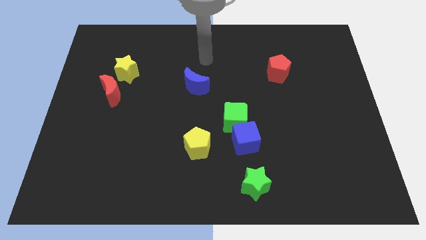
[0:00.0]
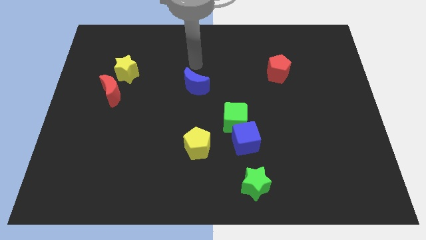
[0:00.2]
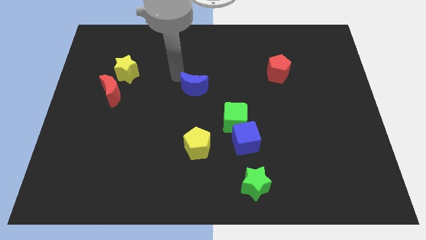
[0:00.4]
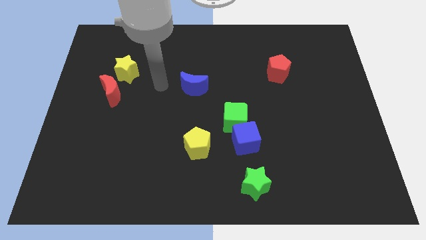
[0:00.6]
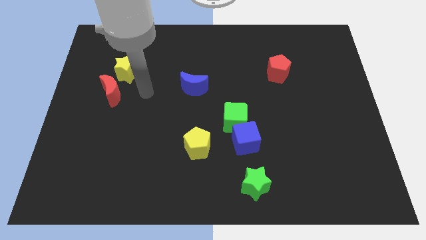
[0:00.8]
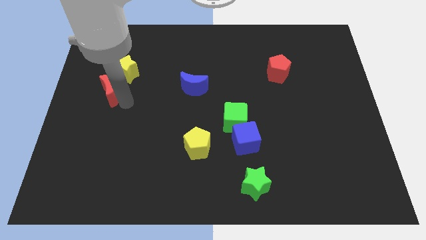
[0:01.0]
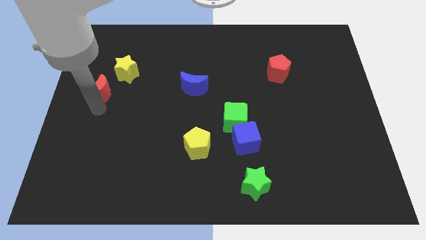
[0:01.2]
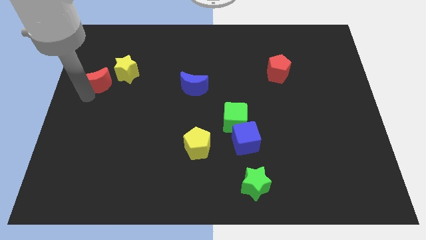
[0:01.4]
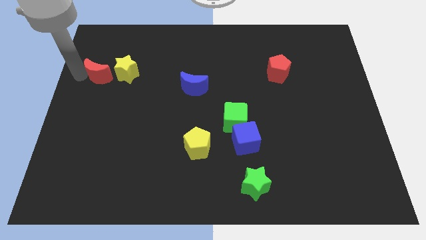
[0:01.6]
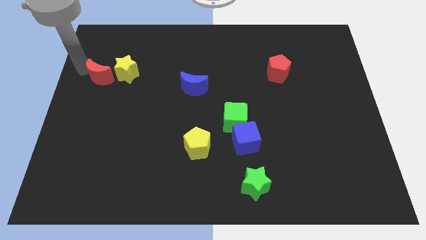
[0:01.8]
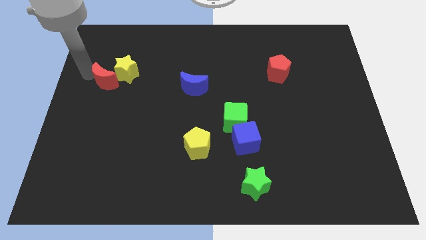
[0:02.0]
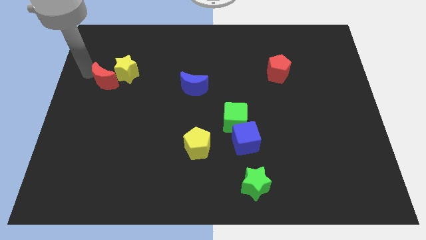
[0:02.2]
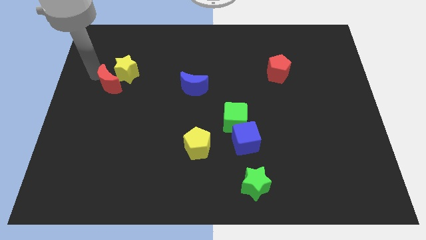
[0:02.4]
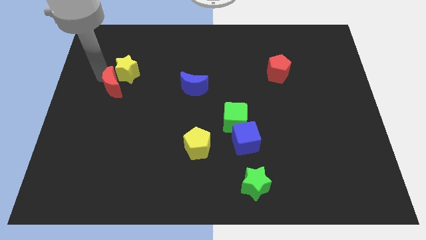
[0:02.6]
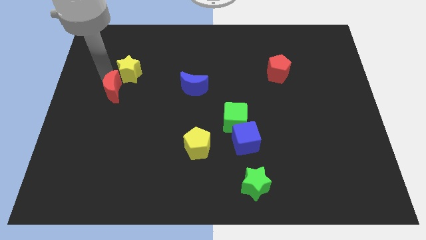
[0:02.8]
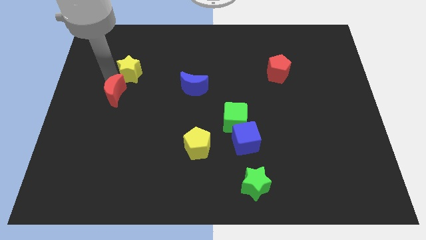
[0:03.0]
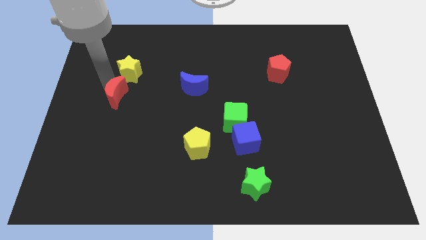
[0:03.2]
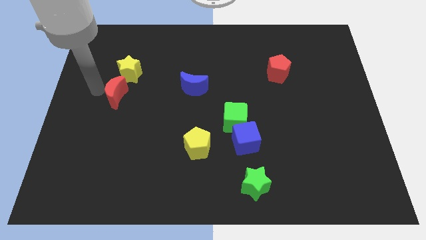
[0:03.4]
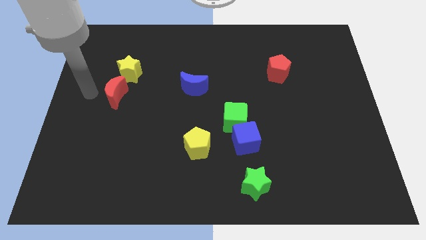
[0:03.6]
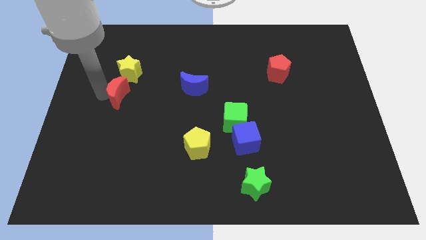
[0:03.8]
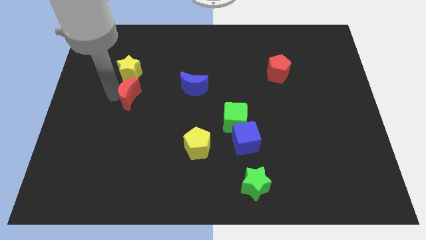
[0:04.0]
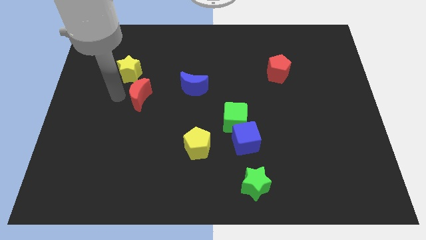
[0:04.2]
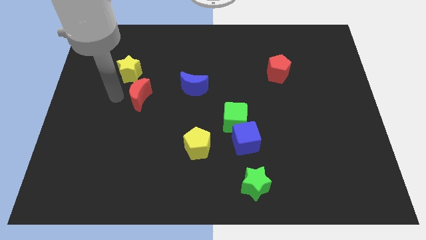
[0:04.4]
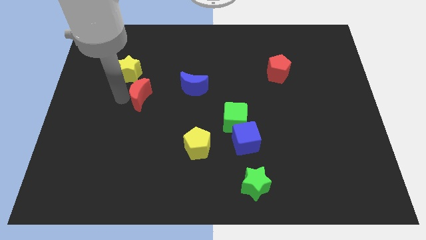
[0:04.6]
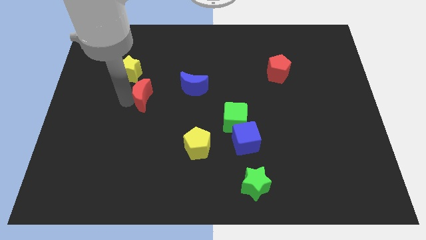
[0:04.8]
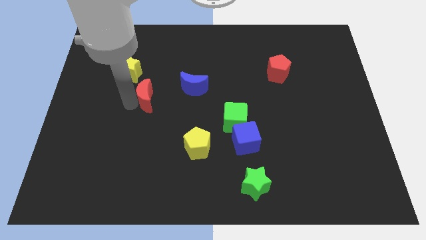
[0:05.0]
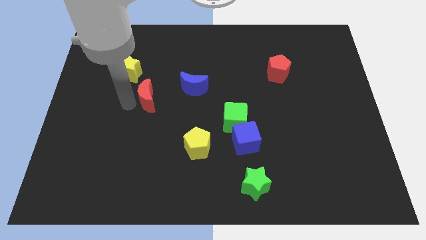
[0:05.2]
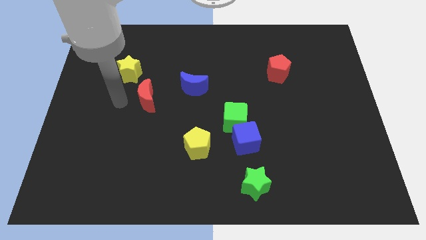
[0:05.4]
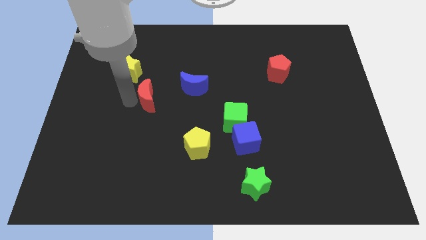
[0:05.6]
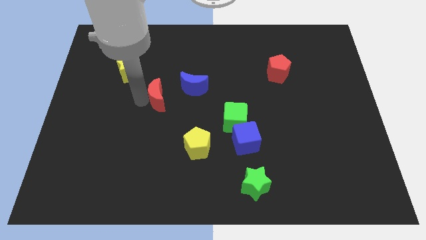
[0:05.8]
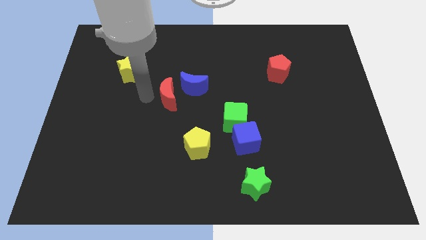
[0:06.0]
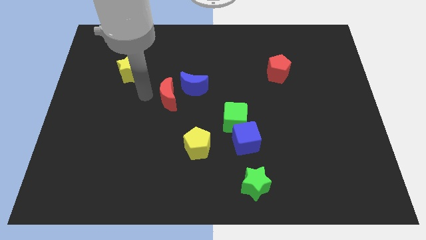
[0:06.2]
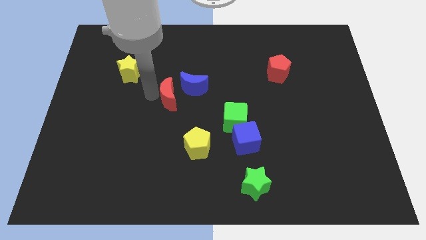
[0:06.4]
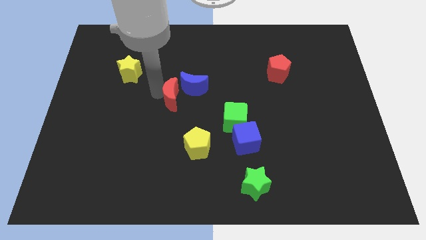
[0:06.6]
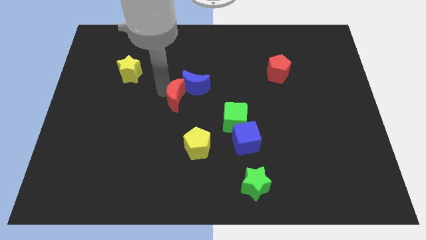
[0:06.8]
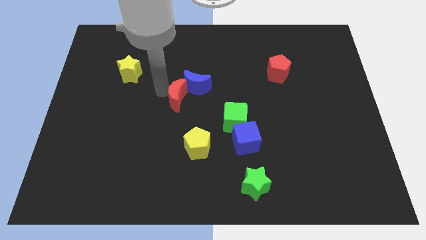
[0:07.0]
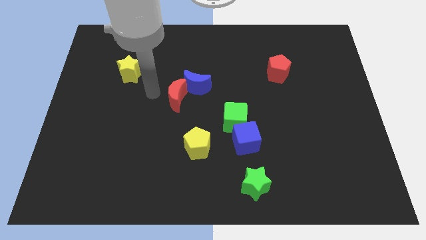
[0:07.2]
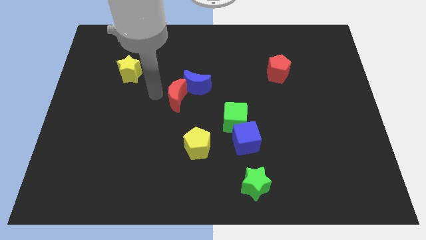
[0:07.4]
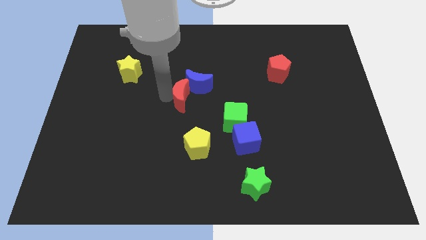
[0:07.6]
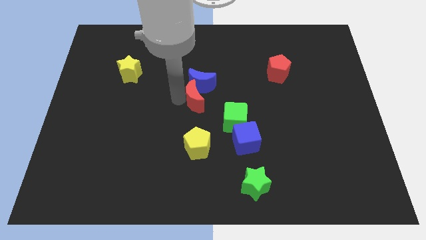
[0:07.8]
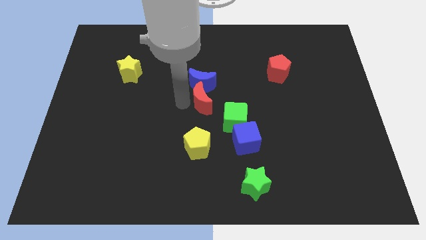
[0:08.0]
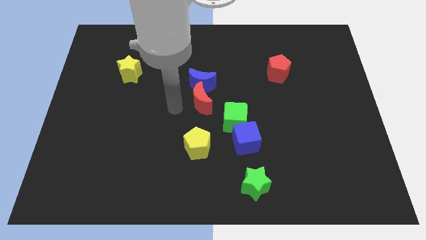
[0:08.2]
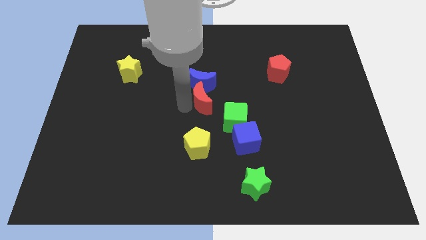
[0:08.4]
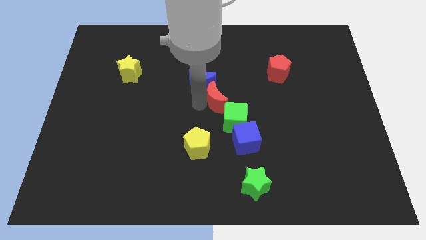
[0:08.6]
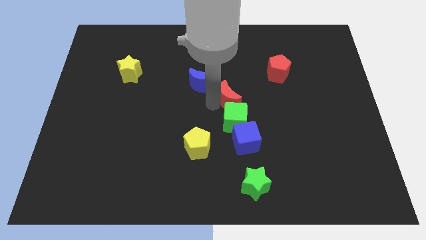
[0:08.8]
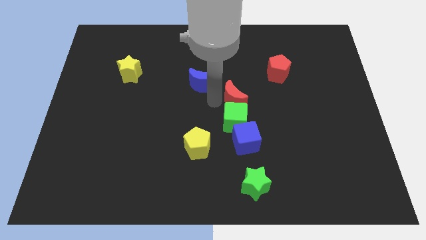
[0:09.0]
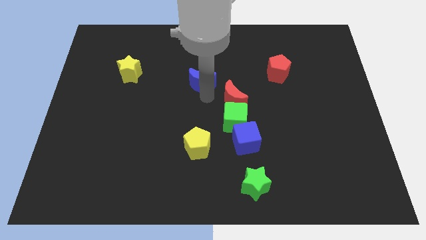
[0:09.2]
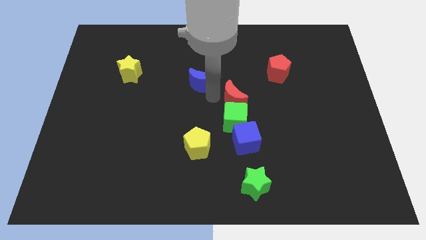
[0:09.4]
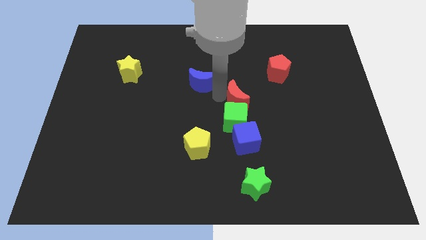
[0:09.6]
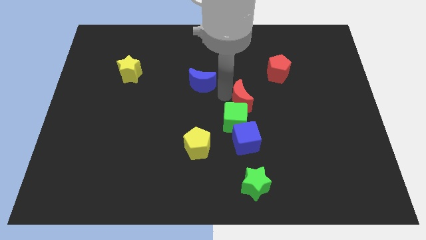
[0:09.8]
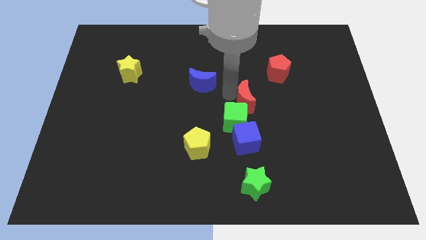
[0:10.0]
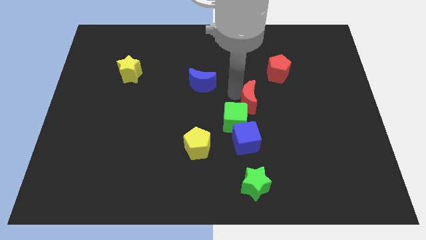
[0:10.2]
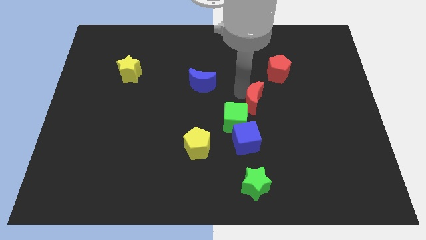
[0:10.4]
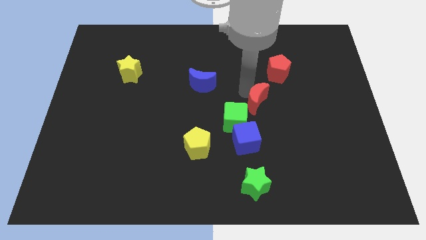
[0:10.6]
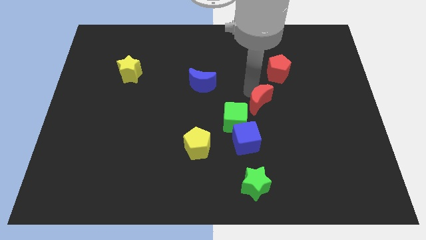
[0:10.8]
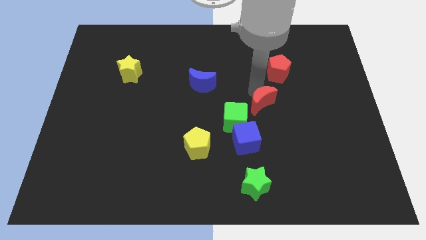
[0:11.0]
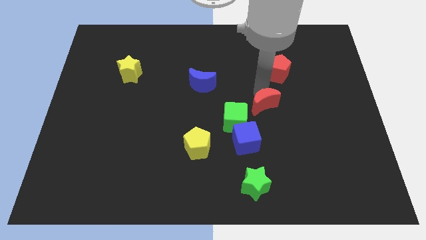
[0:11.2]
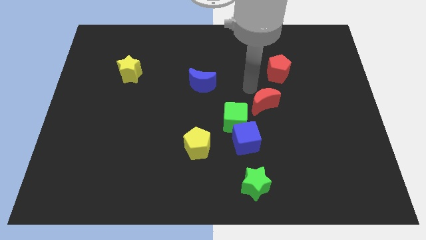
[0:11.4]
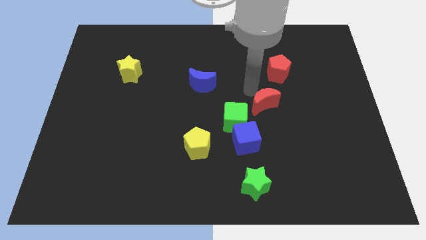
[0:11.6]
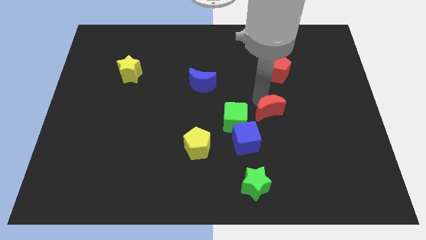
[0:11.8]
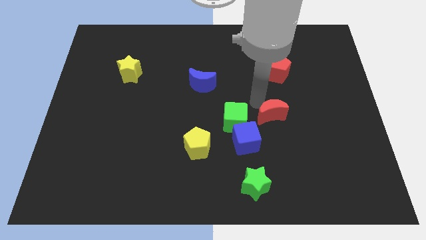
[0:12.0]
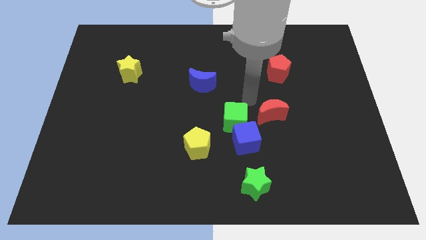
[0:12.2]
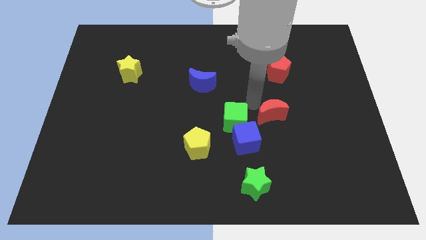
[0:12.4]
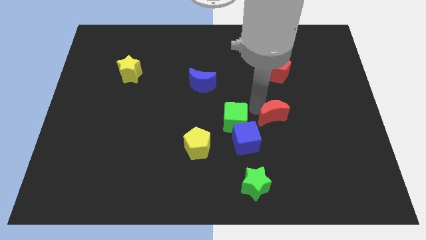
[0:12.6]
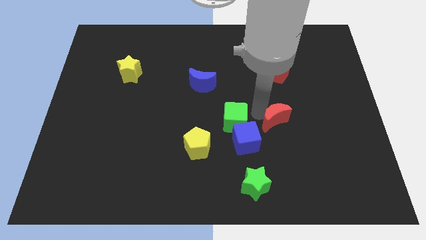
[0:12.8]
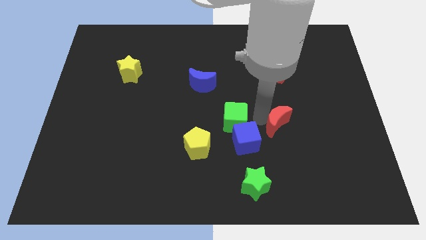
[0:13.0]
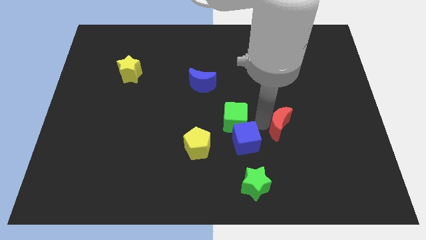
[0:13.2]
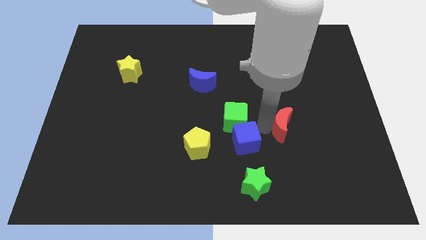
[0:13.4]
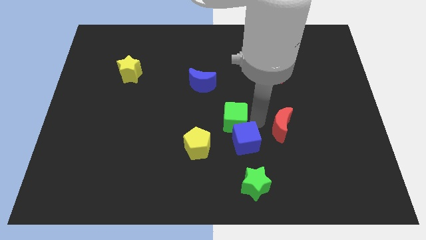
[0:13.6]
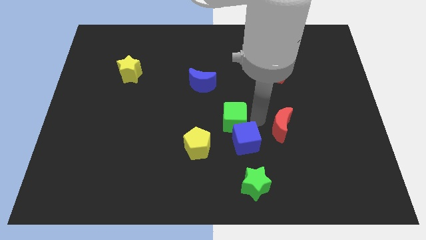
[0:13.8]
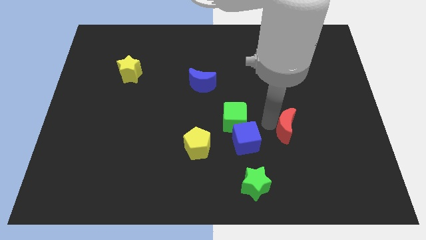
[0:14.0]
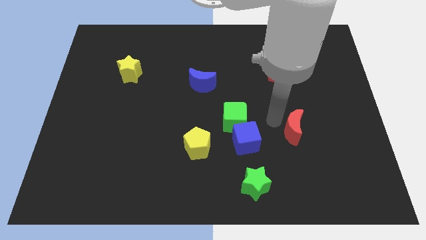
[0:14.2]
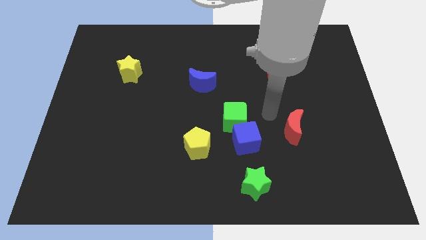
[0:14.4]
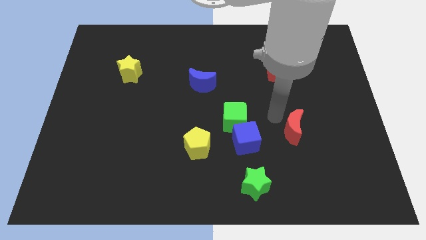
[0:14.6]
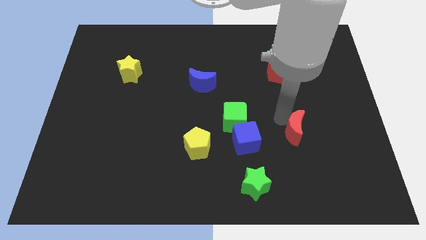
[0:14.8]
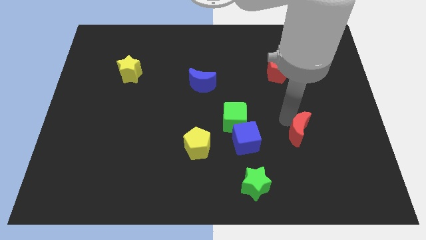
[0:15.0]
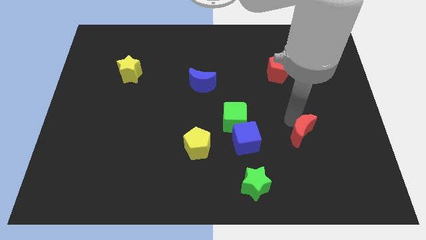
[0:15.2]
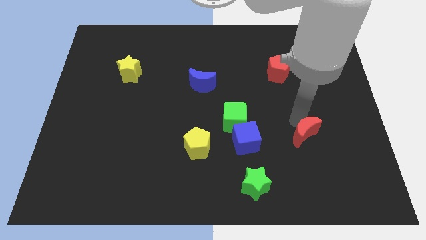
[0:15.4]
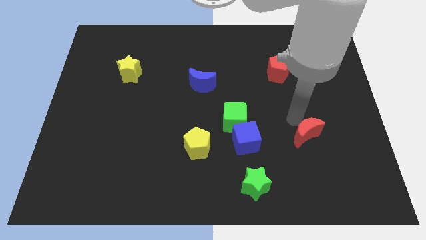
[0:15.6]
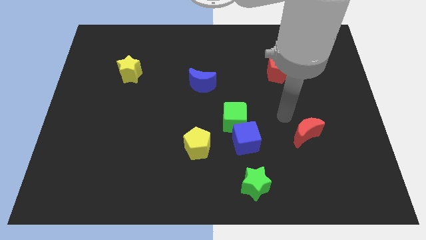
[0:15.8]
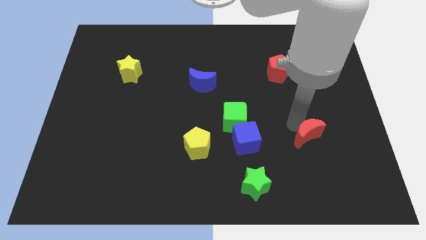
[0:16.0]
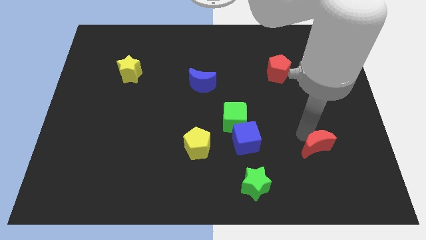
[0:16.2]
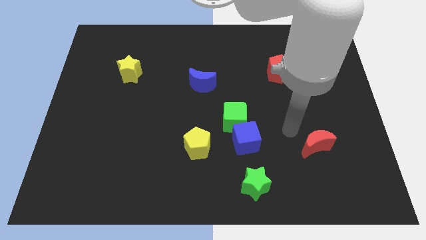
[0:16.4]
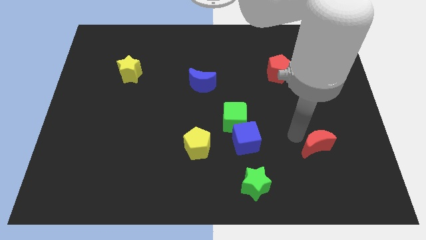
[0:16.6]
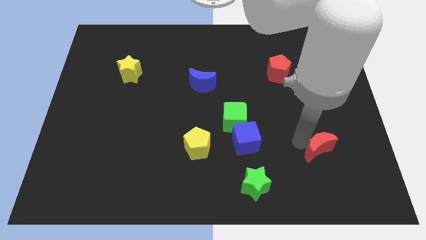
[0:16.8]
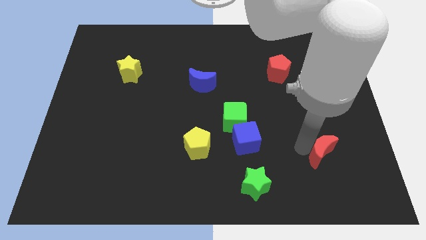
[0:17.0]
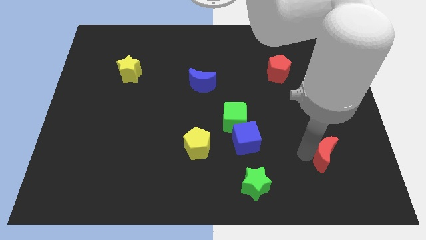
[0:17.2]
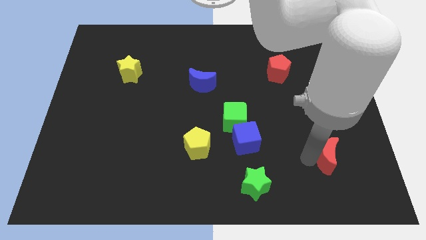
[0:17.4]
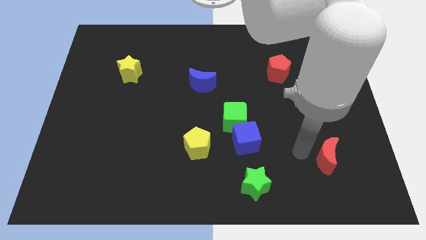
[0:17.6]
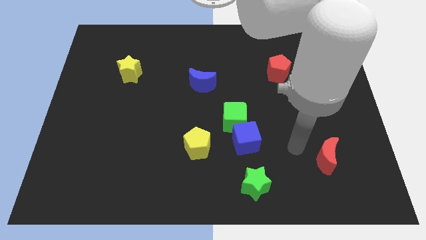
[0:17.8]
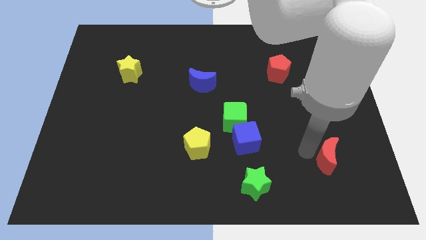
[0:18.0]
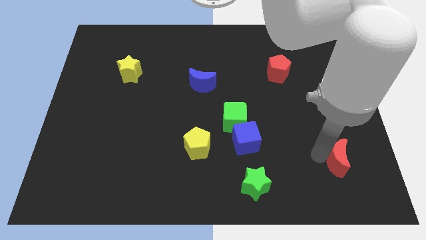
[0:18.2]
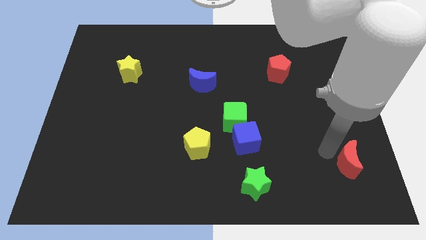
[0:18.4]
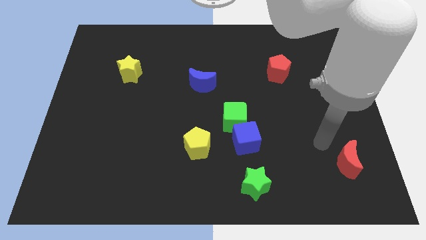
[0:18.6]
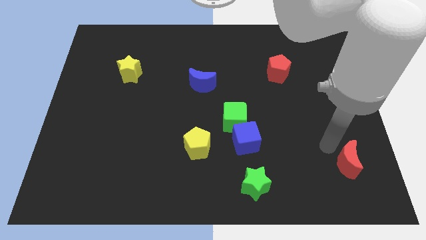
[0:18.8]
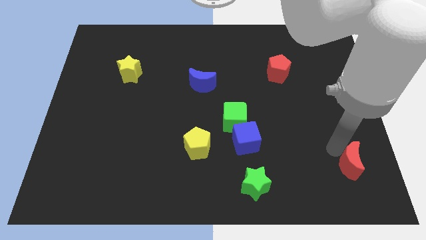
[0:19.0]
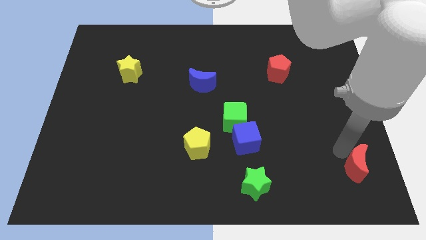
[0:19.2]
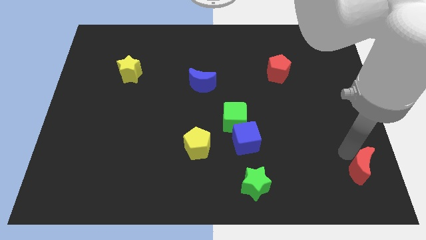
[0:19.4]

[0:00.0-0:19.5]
put the red moon to the lower right corner
